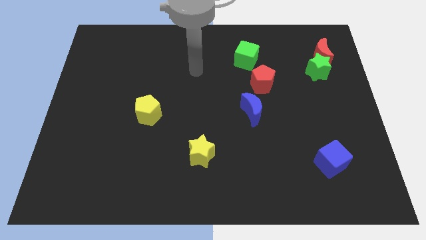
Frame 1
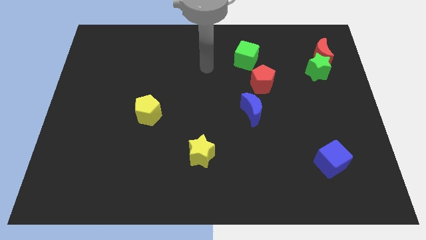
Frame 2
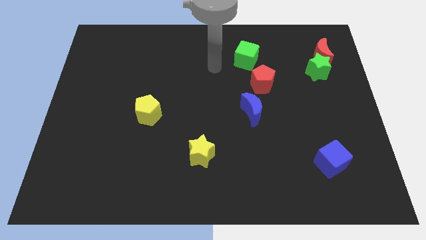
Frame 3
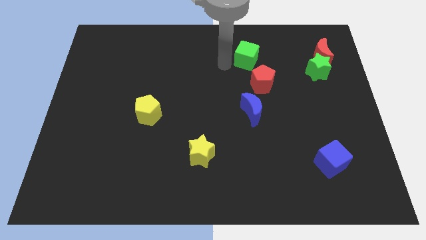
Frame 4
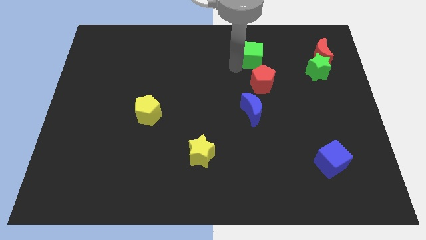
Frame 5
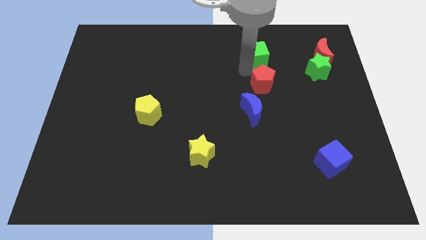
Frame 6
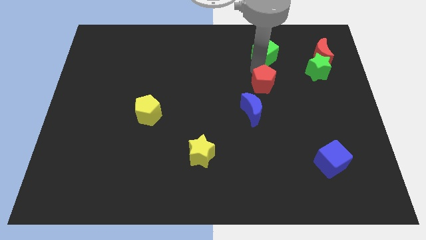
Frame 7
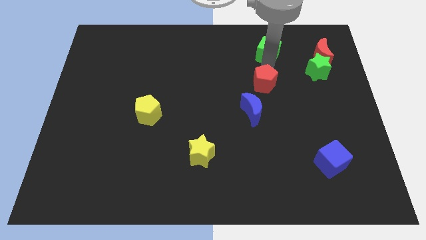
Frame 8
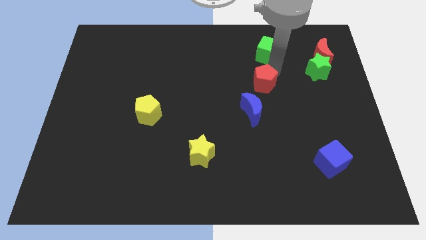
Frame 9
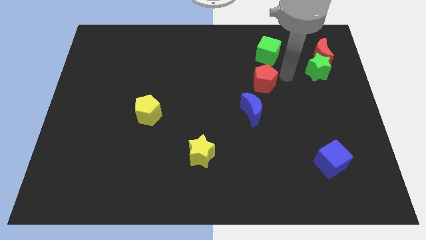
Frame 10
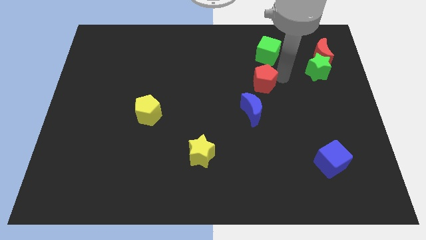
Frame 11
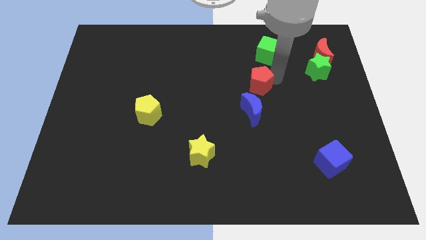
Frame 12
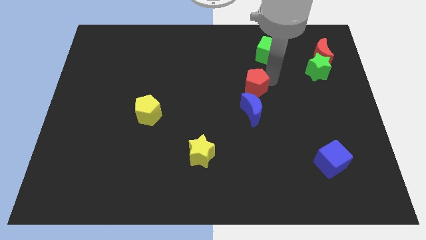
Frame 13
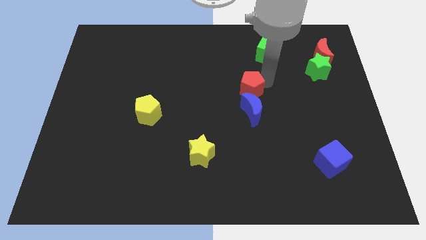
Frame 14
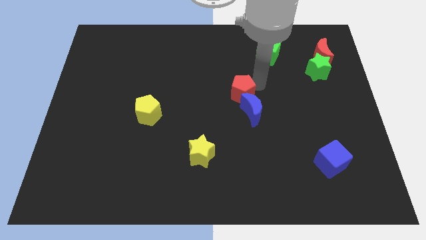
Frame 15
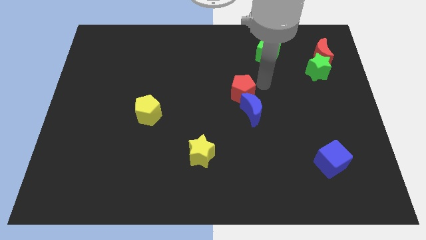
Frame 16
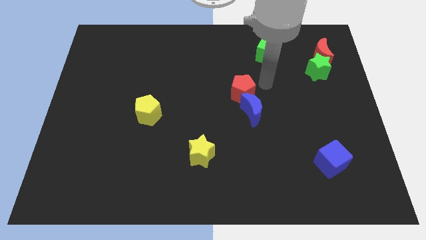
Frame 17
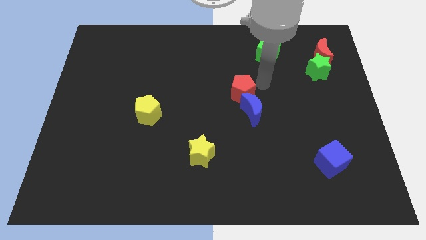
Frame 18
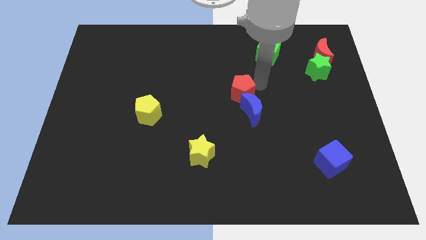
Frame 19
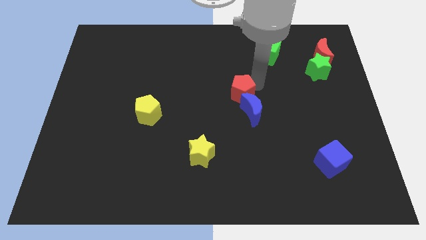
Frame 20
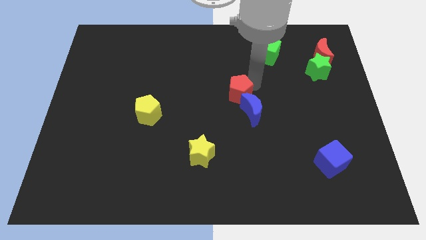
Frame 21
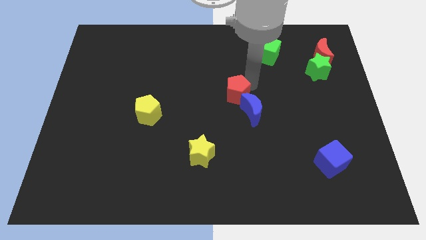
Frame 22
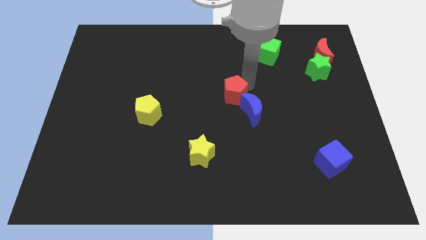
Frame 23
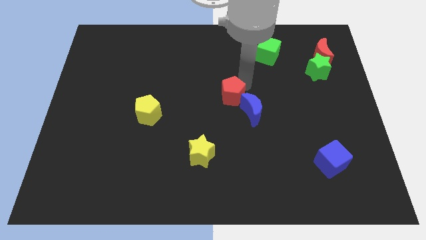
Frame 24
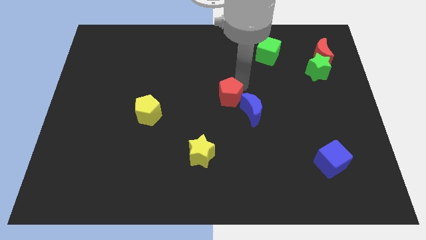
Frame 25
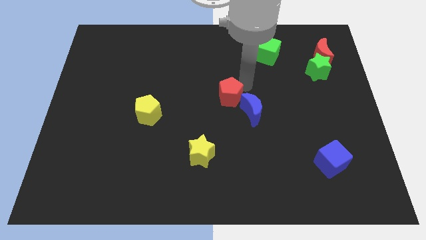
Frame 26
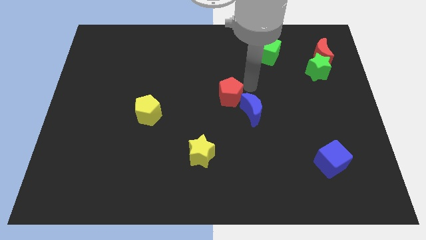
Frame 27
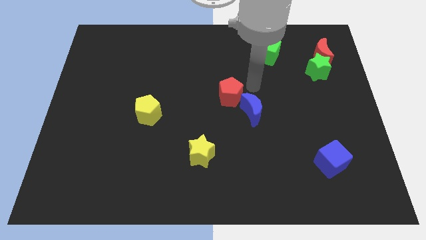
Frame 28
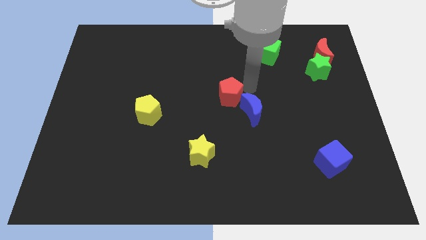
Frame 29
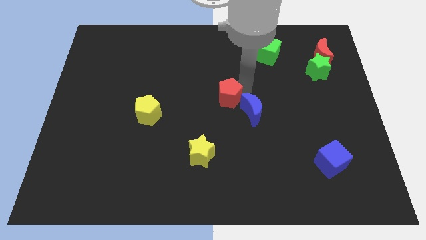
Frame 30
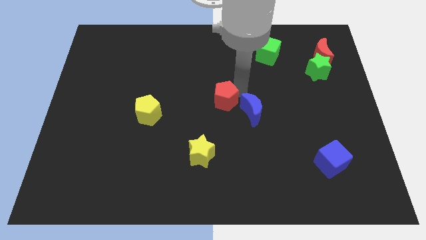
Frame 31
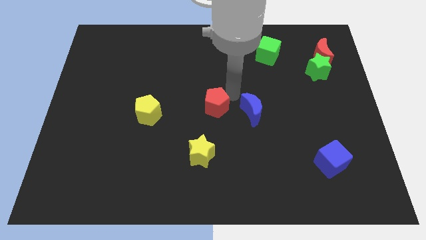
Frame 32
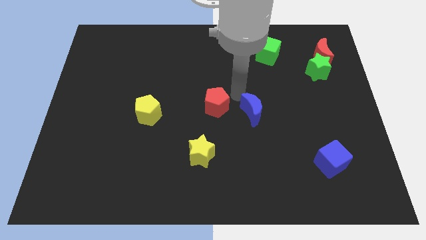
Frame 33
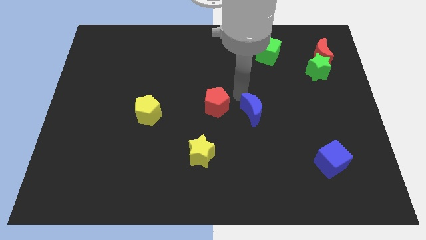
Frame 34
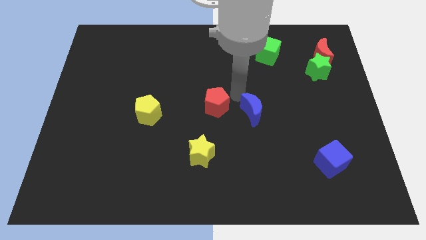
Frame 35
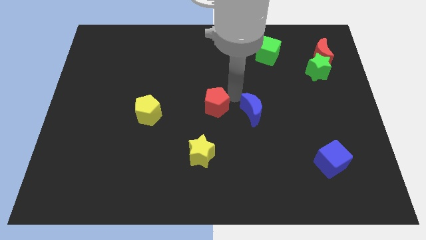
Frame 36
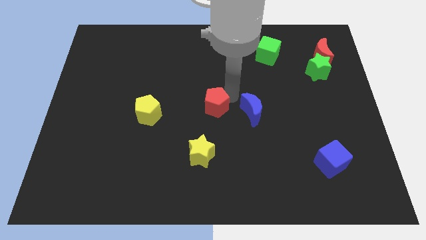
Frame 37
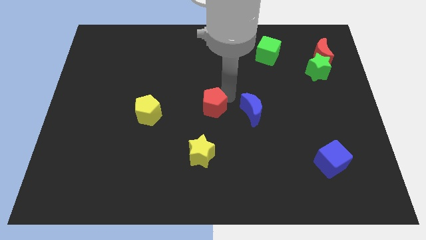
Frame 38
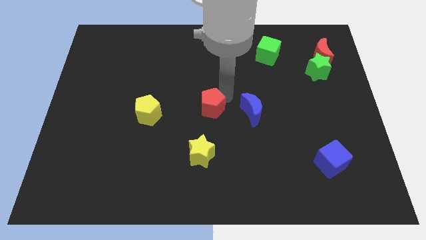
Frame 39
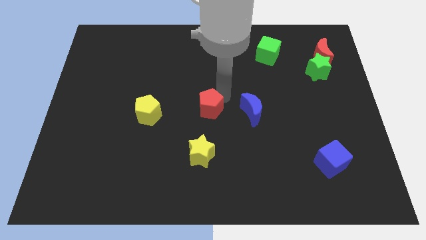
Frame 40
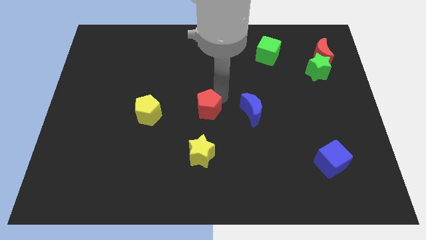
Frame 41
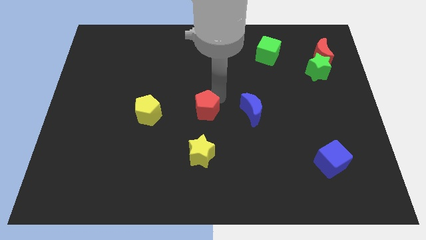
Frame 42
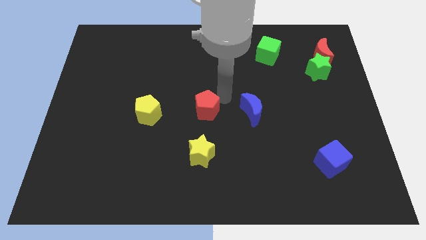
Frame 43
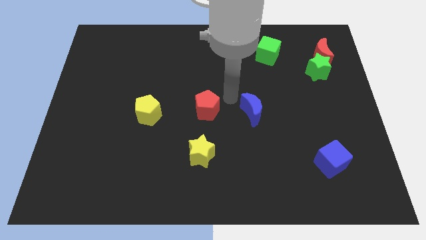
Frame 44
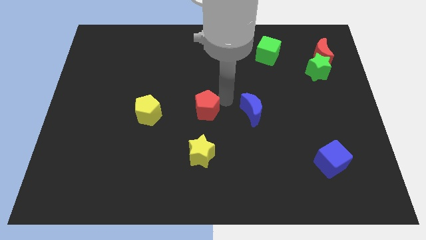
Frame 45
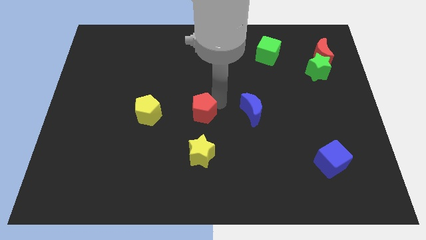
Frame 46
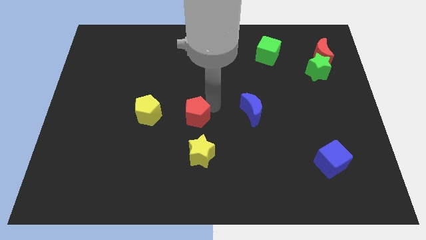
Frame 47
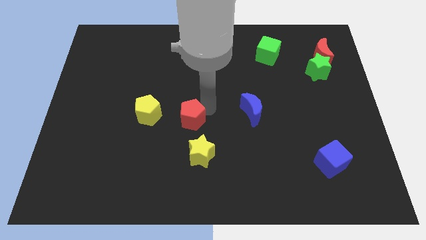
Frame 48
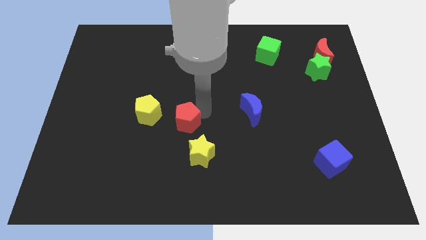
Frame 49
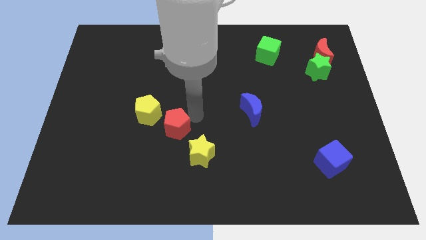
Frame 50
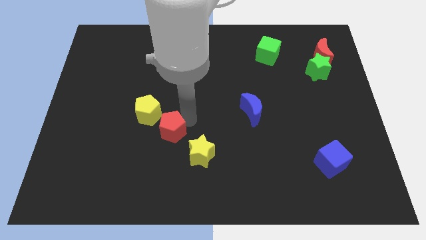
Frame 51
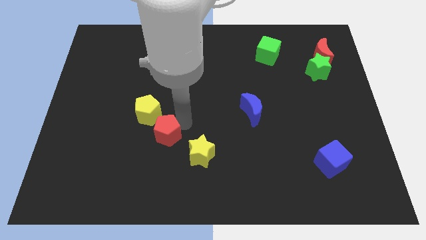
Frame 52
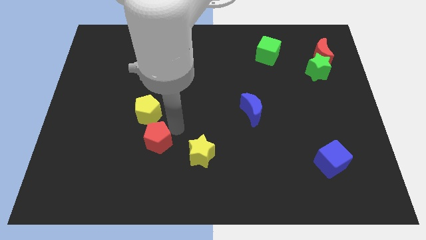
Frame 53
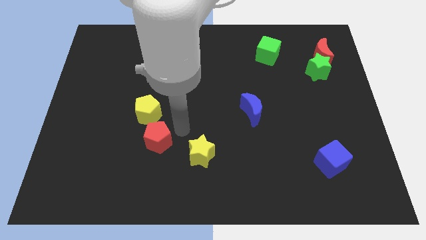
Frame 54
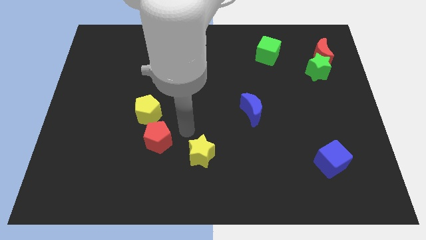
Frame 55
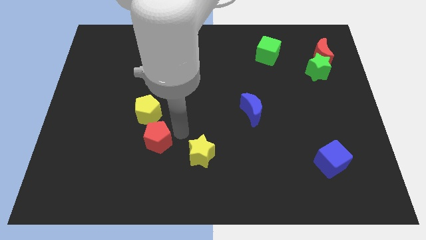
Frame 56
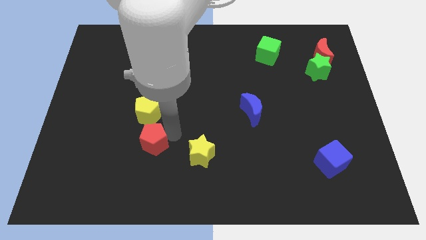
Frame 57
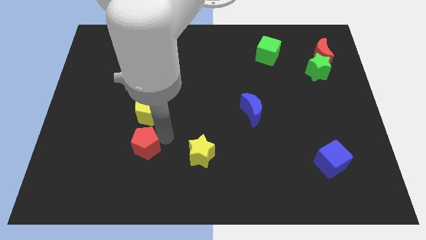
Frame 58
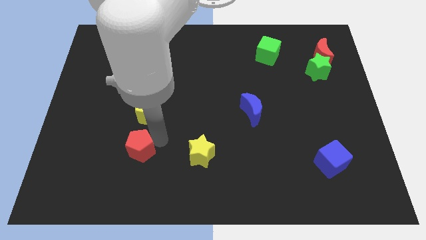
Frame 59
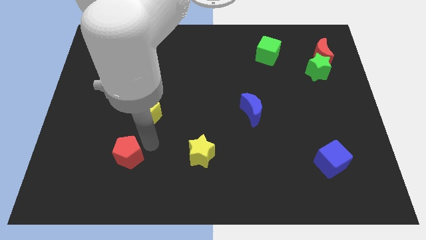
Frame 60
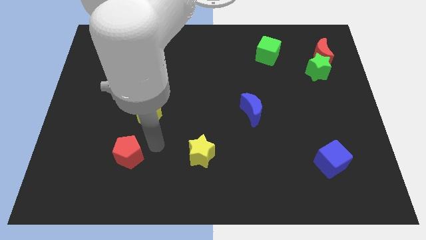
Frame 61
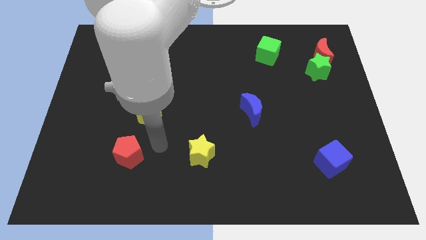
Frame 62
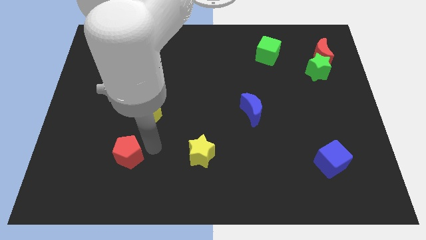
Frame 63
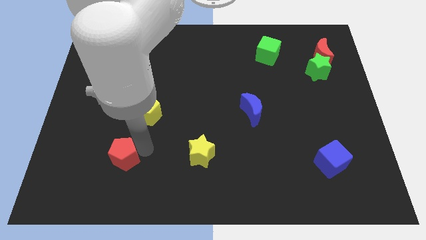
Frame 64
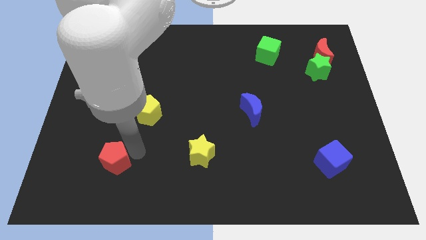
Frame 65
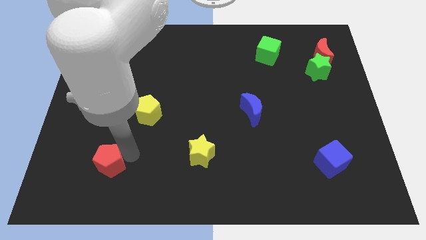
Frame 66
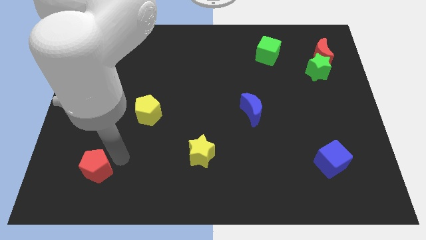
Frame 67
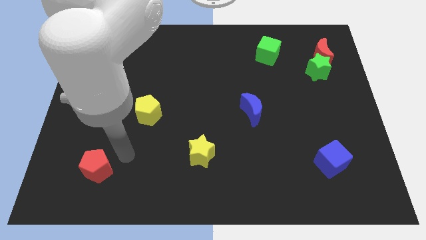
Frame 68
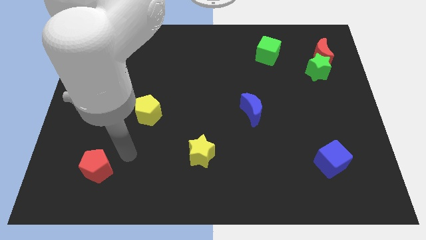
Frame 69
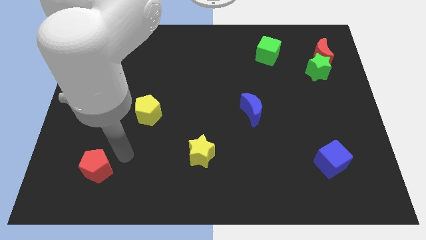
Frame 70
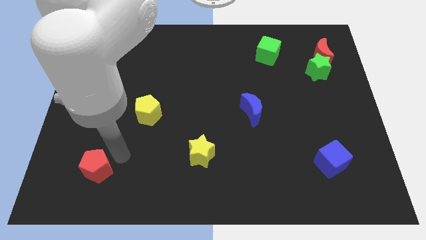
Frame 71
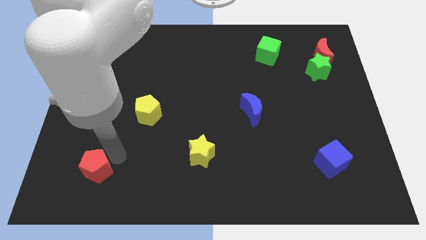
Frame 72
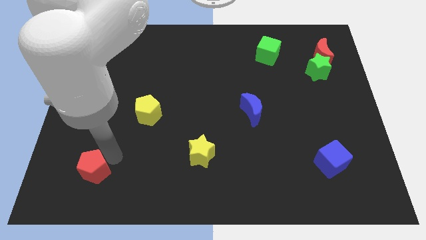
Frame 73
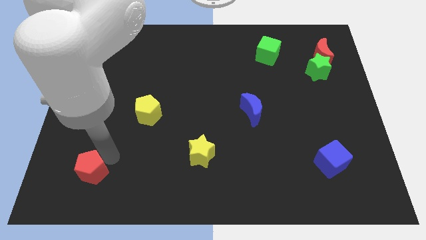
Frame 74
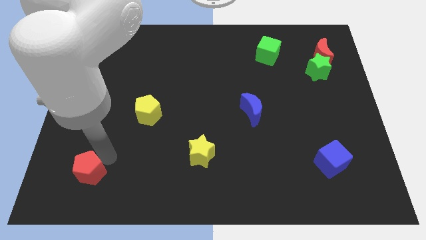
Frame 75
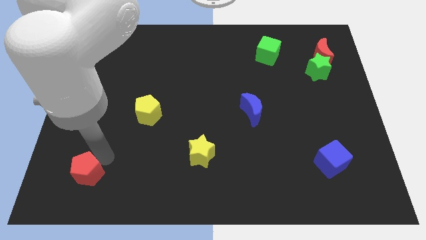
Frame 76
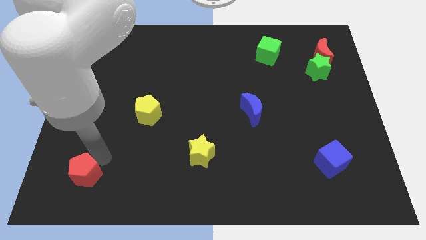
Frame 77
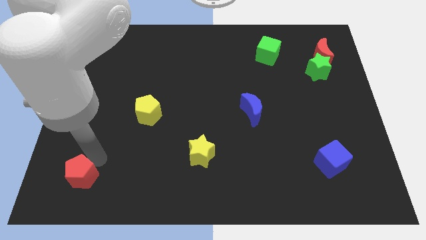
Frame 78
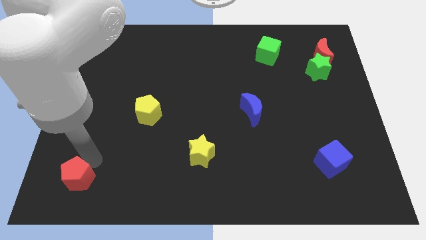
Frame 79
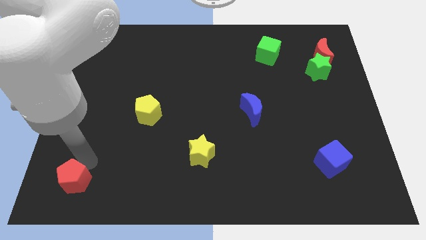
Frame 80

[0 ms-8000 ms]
slide the red pentagon to the bottom left
